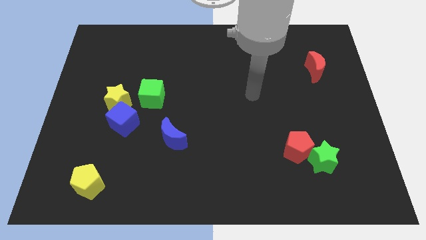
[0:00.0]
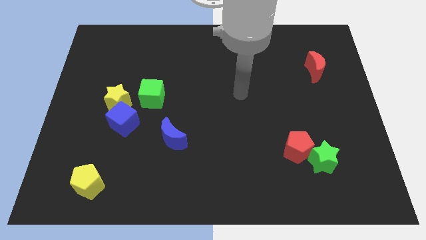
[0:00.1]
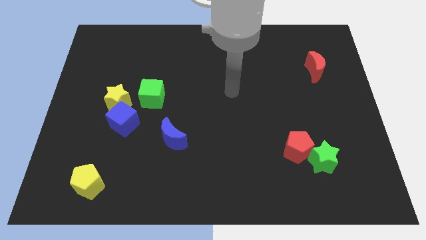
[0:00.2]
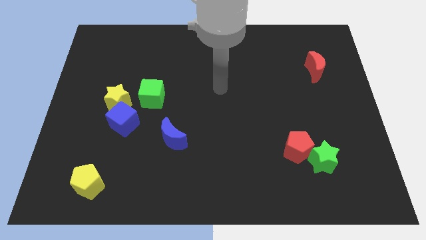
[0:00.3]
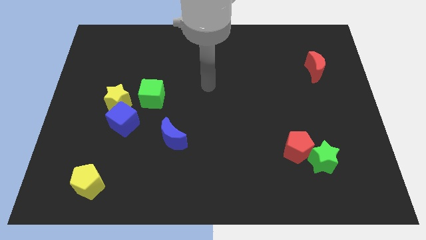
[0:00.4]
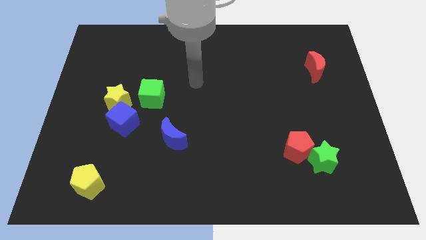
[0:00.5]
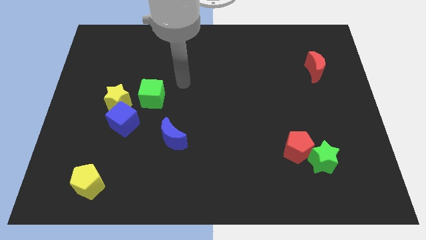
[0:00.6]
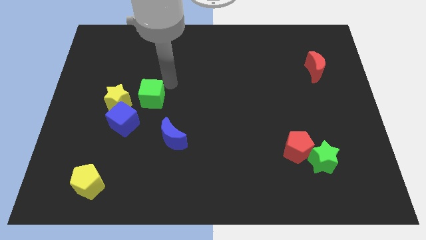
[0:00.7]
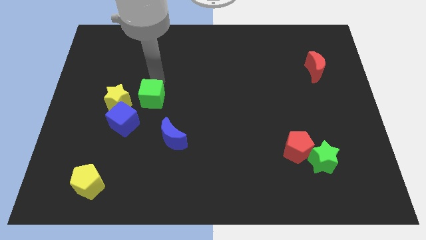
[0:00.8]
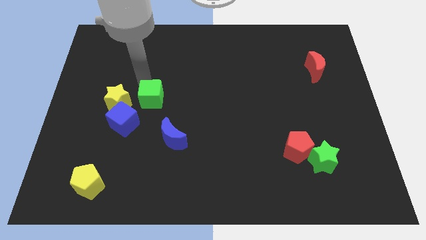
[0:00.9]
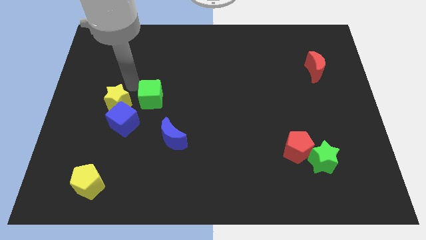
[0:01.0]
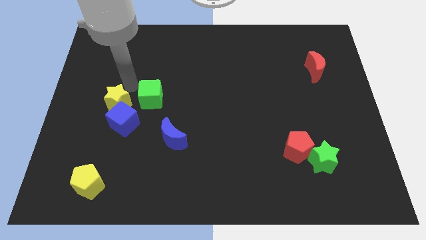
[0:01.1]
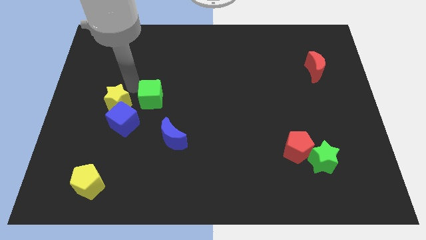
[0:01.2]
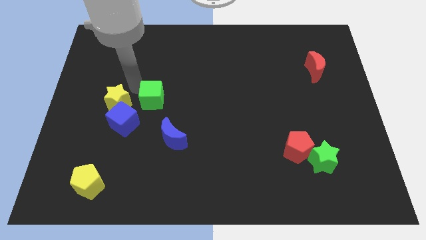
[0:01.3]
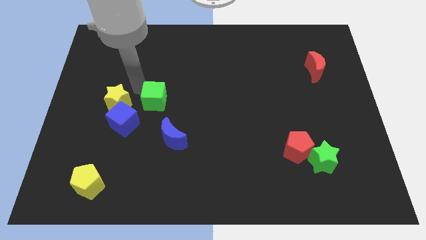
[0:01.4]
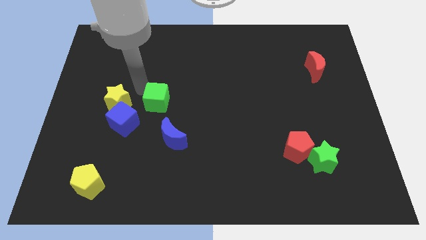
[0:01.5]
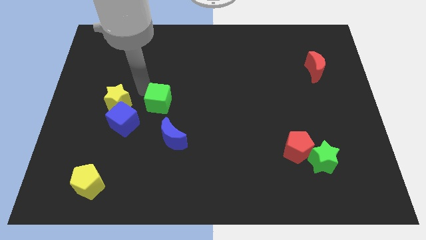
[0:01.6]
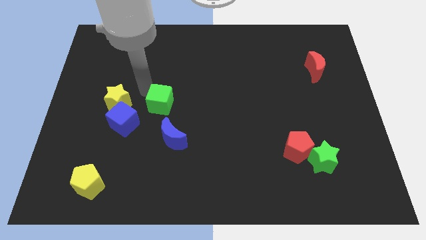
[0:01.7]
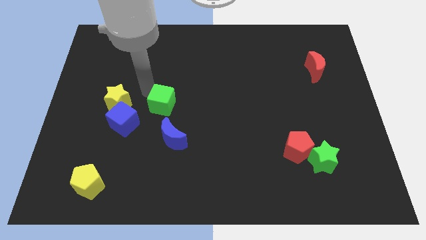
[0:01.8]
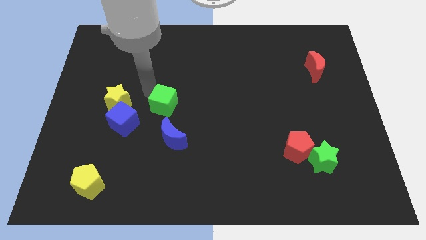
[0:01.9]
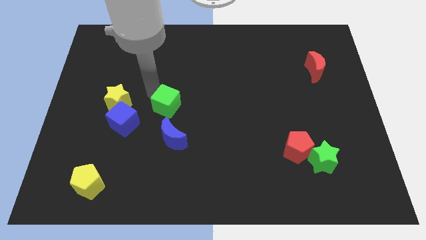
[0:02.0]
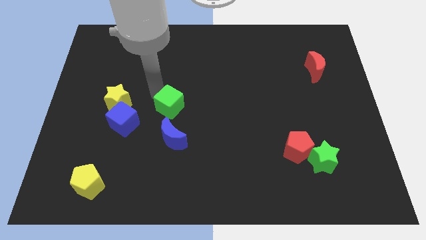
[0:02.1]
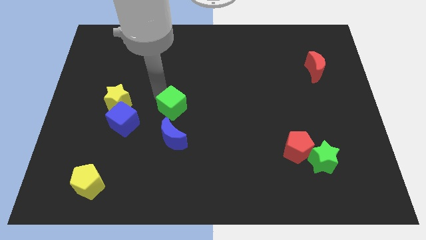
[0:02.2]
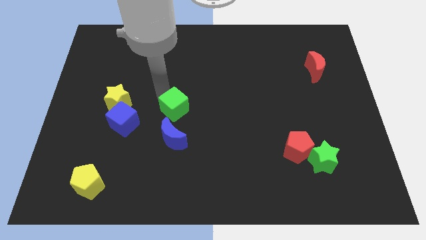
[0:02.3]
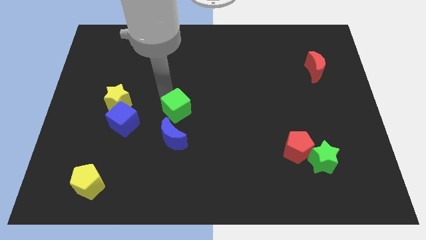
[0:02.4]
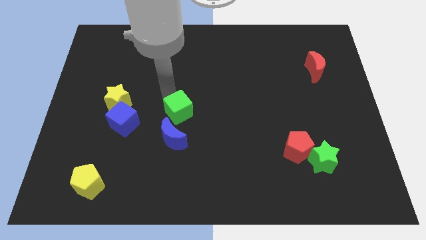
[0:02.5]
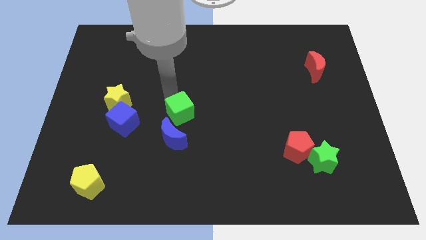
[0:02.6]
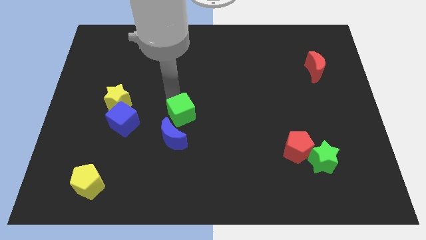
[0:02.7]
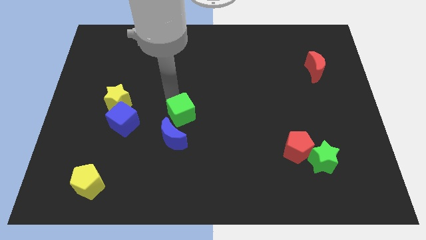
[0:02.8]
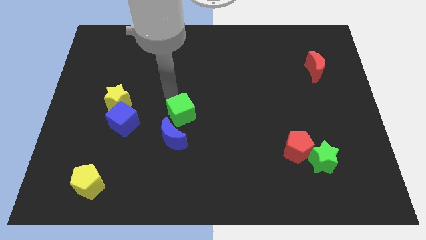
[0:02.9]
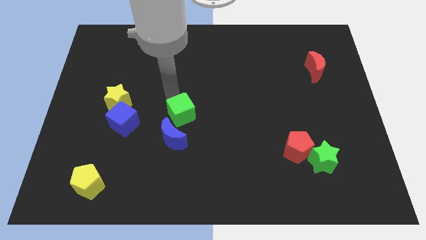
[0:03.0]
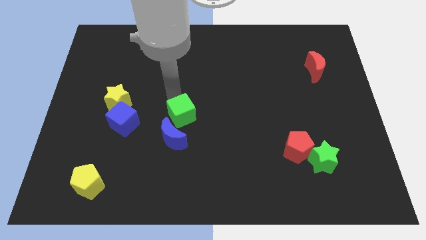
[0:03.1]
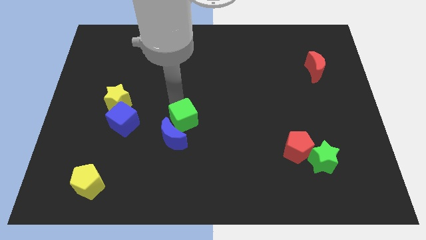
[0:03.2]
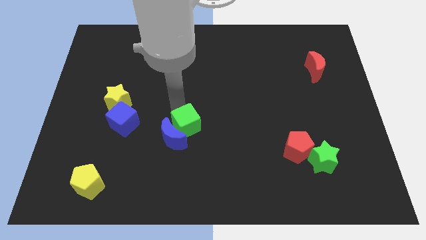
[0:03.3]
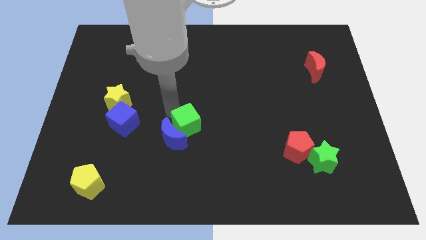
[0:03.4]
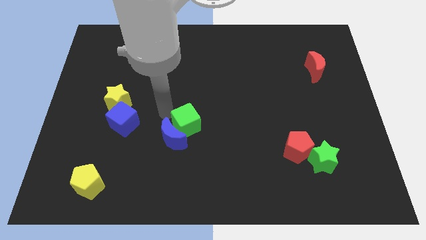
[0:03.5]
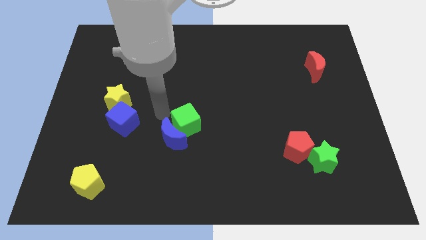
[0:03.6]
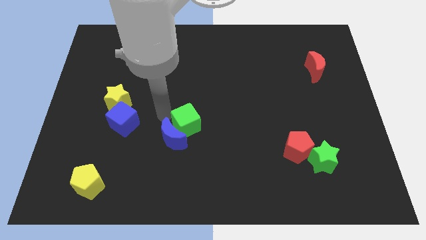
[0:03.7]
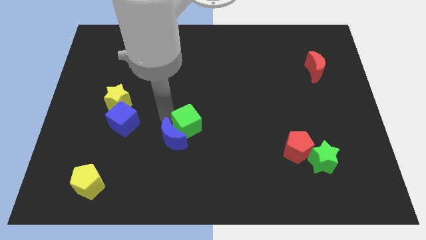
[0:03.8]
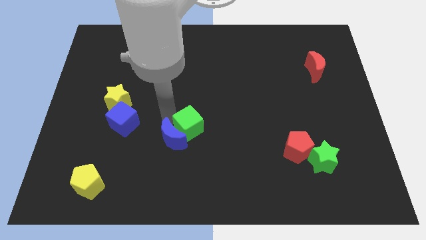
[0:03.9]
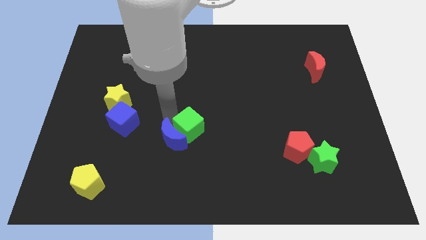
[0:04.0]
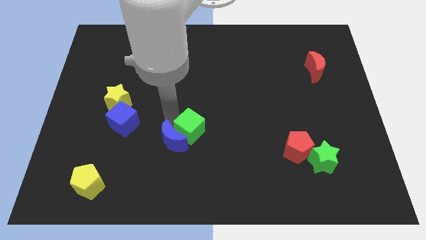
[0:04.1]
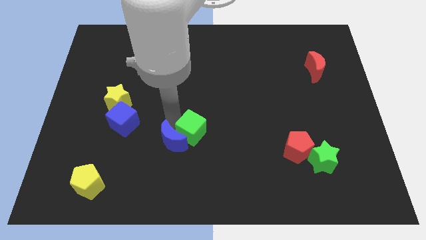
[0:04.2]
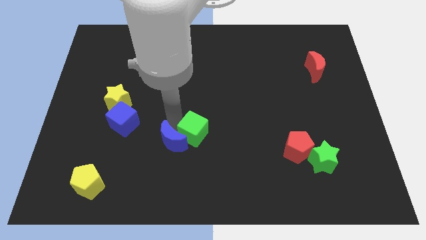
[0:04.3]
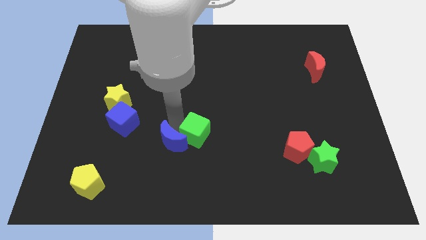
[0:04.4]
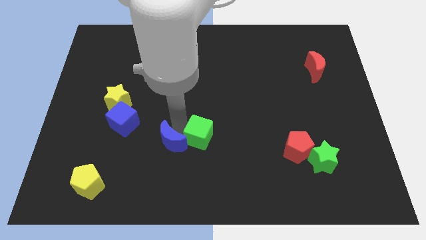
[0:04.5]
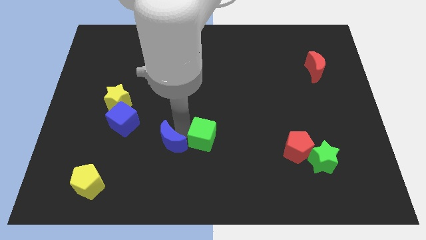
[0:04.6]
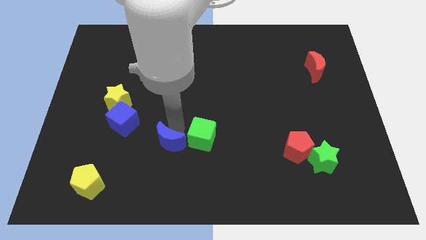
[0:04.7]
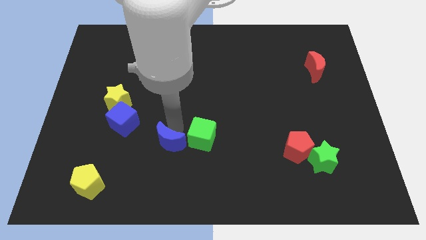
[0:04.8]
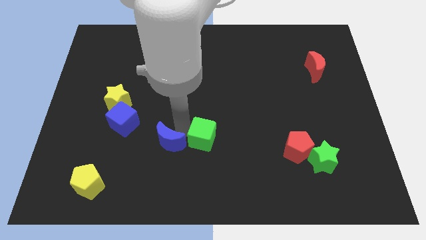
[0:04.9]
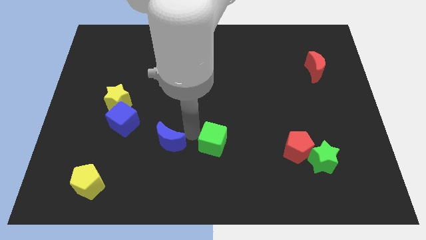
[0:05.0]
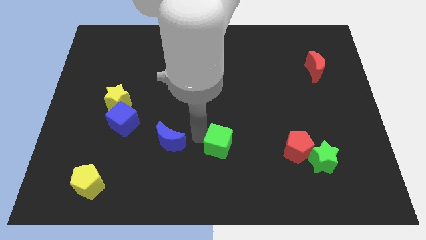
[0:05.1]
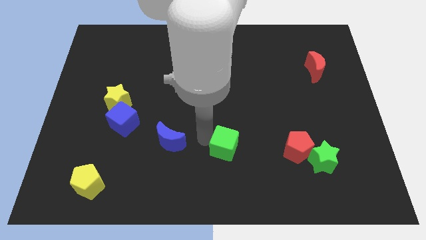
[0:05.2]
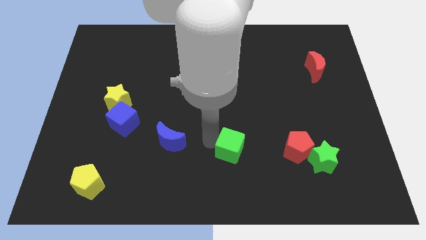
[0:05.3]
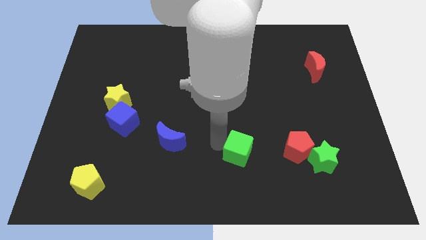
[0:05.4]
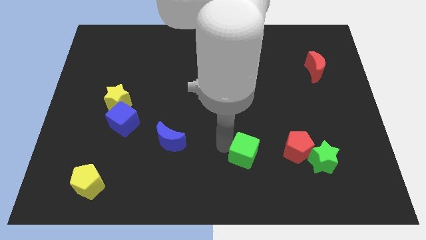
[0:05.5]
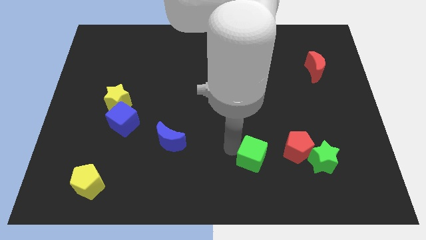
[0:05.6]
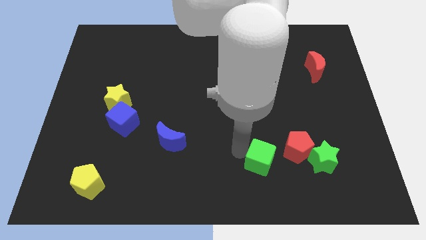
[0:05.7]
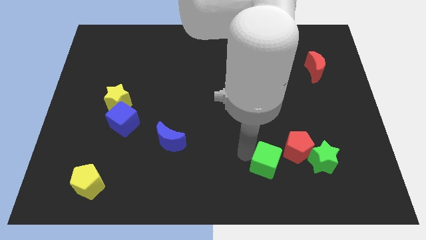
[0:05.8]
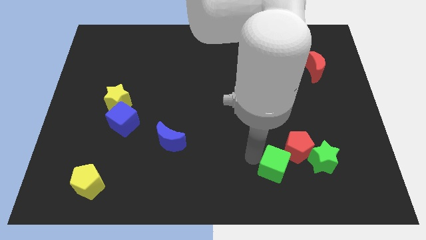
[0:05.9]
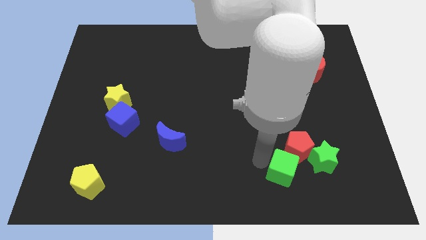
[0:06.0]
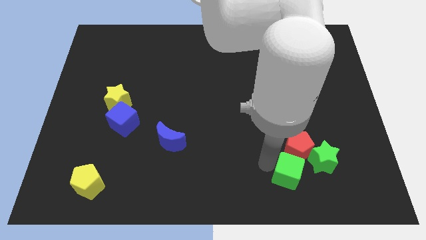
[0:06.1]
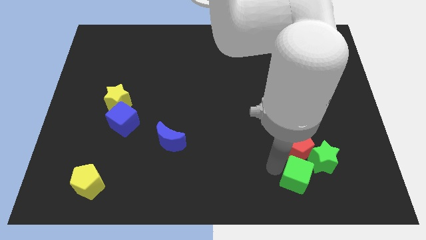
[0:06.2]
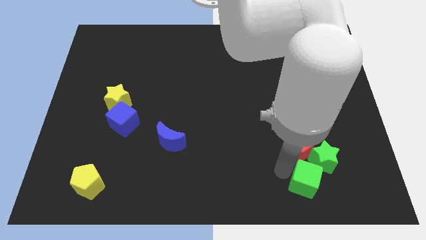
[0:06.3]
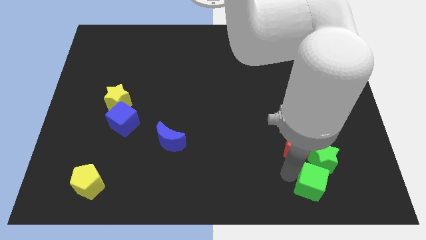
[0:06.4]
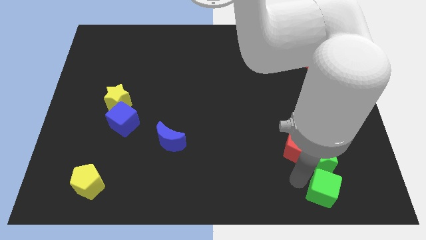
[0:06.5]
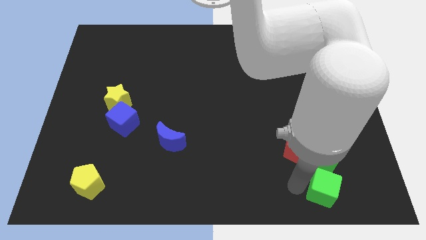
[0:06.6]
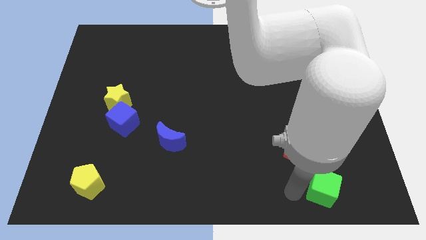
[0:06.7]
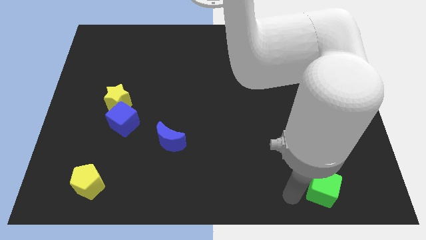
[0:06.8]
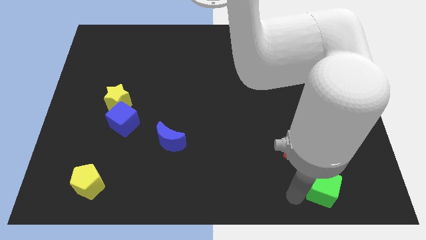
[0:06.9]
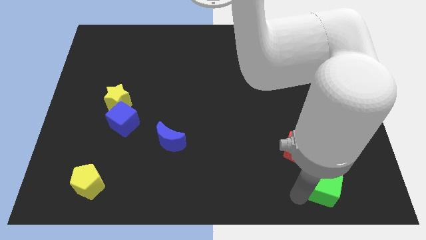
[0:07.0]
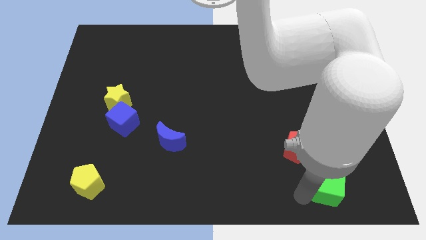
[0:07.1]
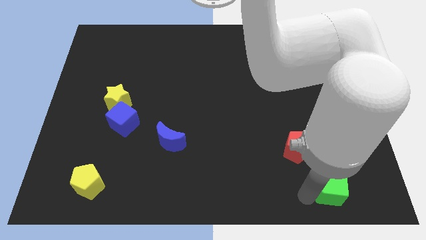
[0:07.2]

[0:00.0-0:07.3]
push the green cube to the bottom right of the green star

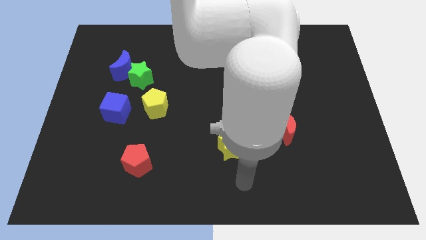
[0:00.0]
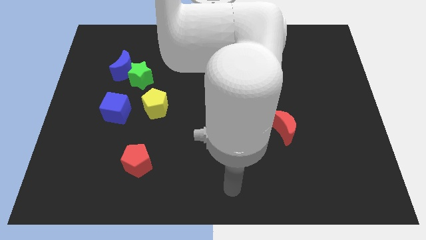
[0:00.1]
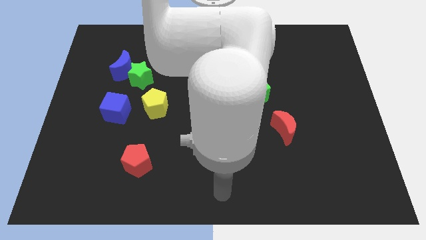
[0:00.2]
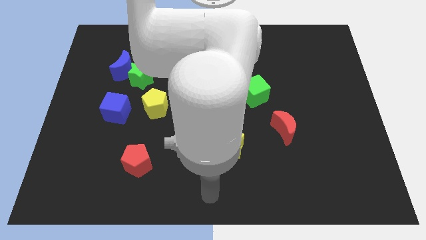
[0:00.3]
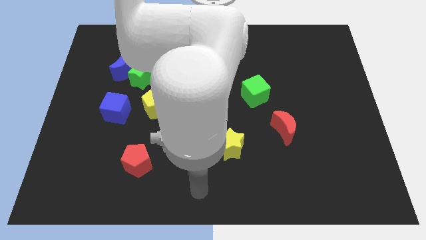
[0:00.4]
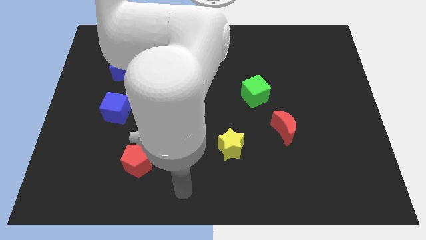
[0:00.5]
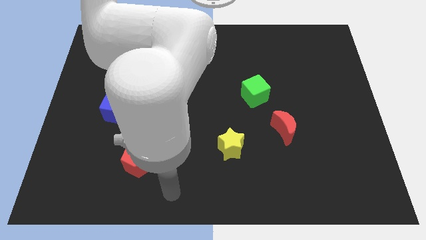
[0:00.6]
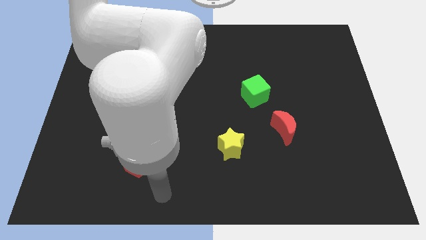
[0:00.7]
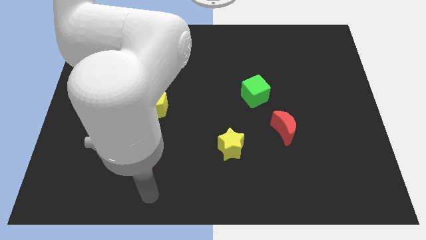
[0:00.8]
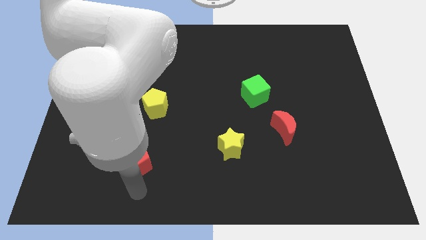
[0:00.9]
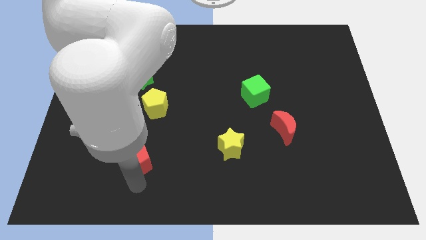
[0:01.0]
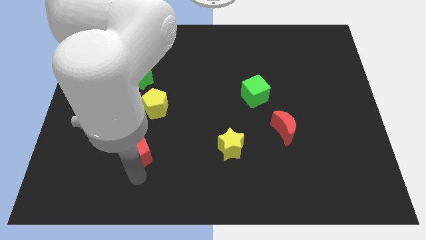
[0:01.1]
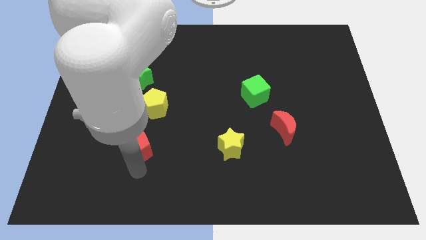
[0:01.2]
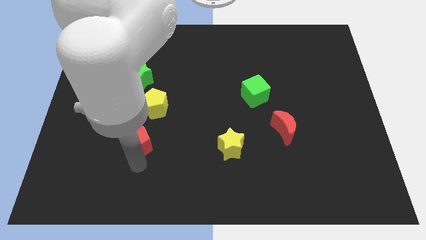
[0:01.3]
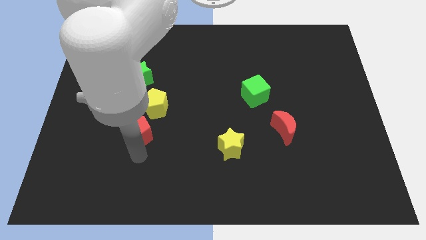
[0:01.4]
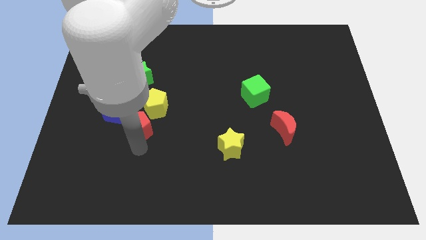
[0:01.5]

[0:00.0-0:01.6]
move the red pentagon below the green star
